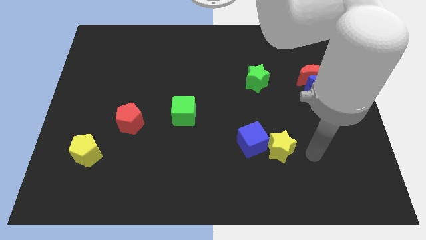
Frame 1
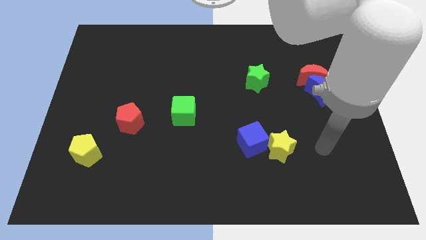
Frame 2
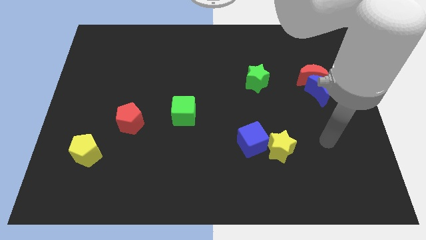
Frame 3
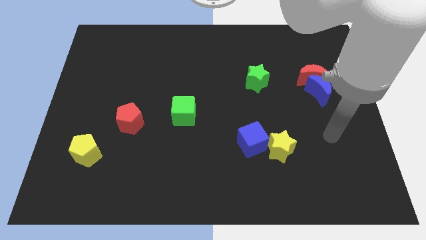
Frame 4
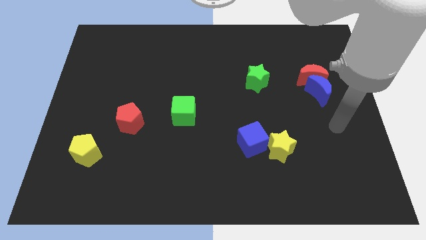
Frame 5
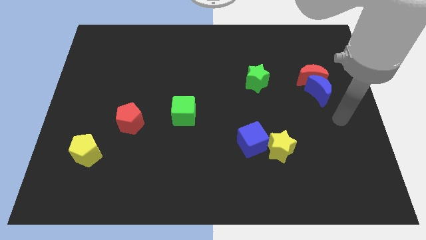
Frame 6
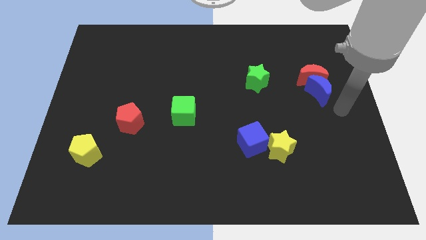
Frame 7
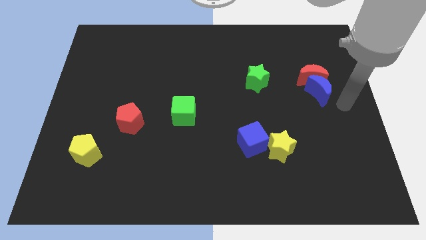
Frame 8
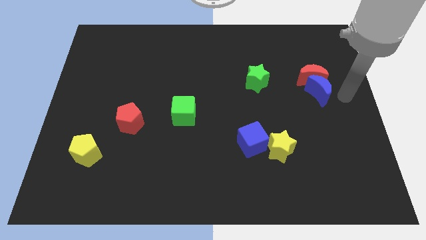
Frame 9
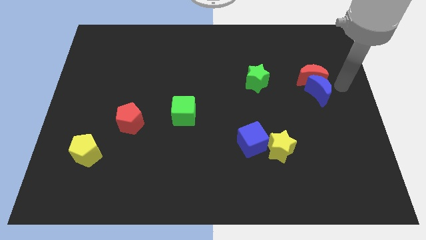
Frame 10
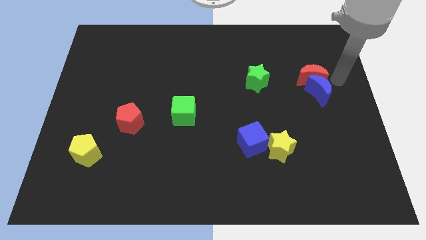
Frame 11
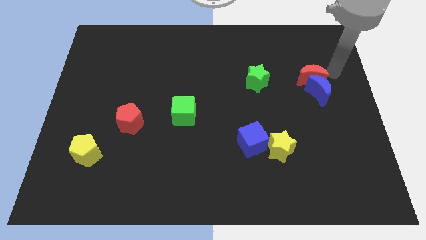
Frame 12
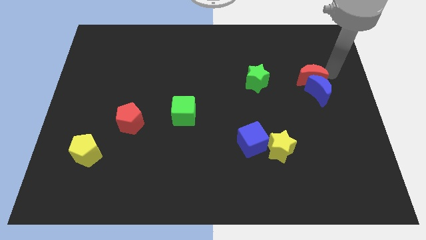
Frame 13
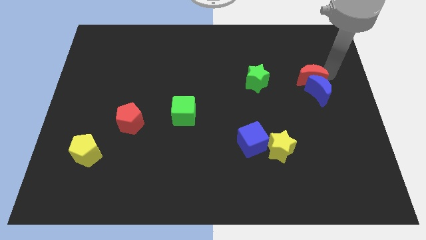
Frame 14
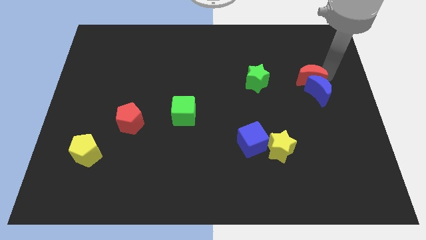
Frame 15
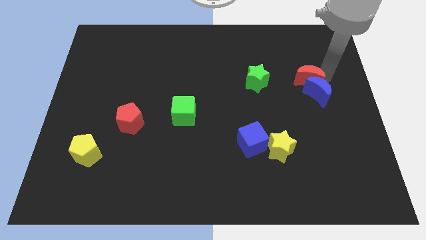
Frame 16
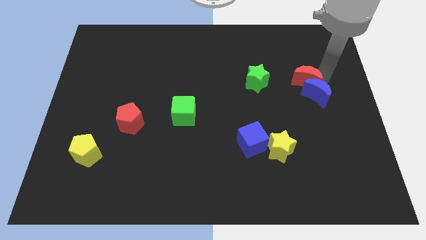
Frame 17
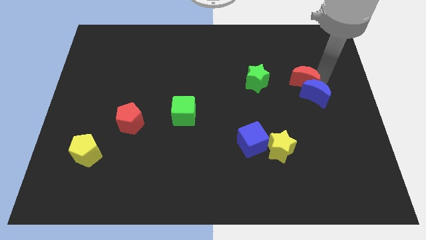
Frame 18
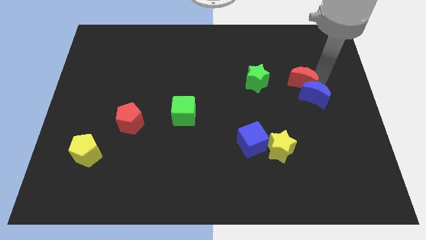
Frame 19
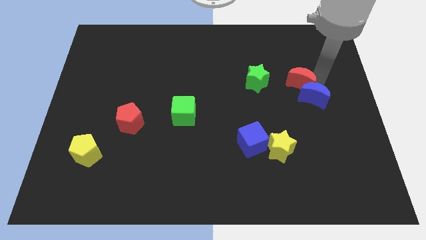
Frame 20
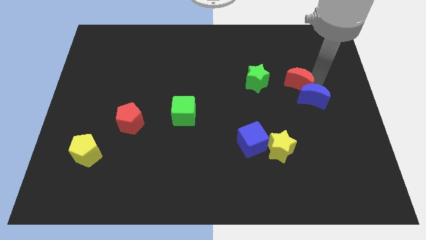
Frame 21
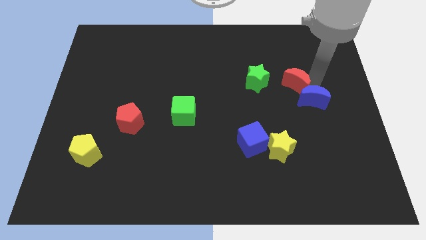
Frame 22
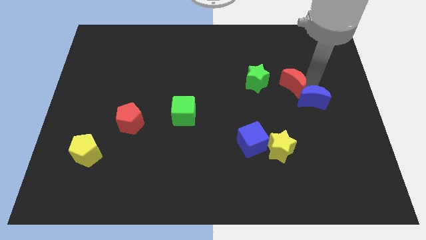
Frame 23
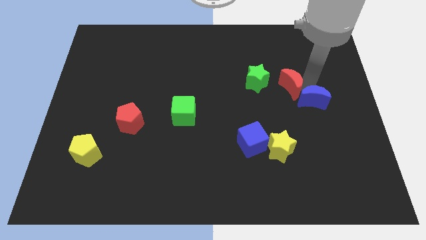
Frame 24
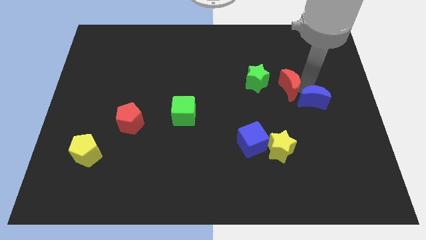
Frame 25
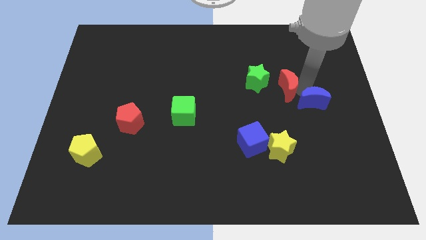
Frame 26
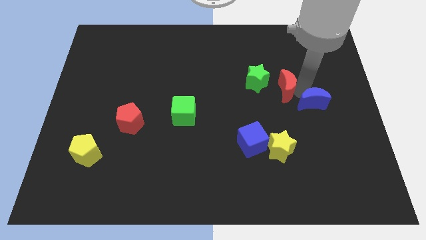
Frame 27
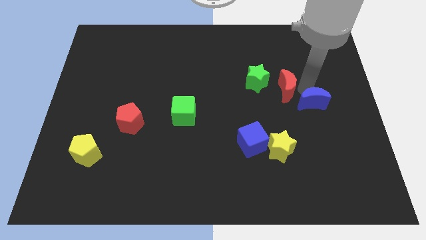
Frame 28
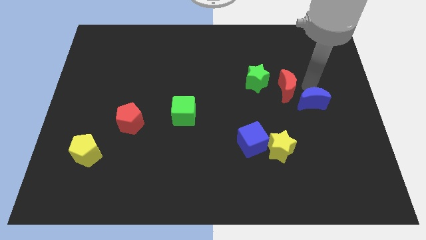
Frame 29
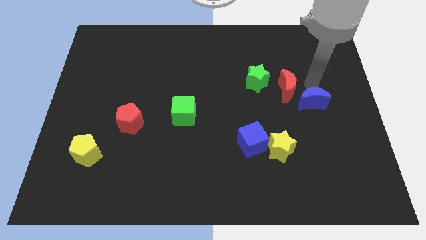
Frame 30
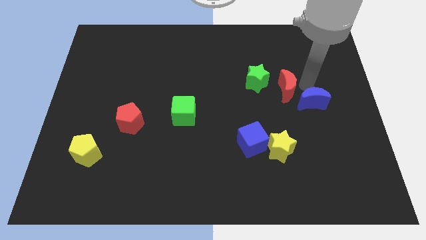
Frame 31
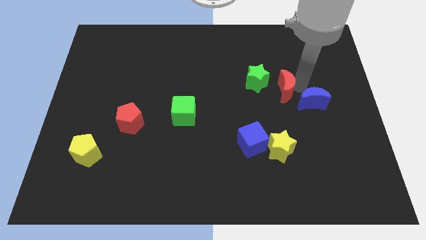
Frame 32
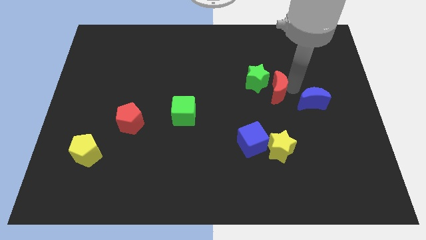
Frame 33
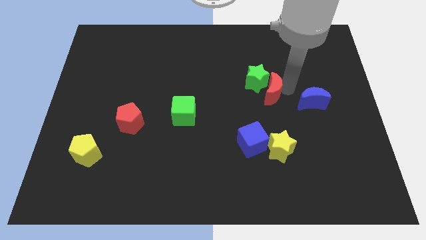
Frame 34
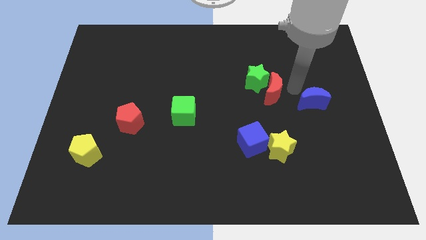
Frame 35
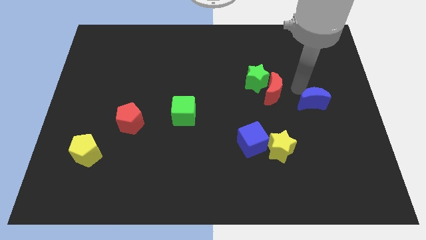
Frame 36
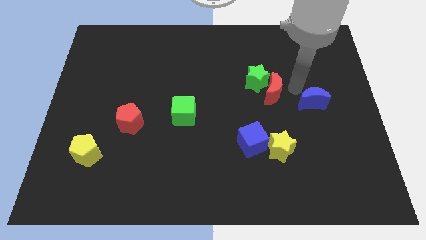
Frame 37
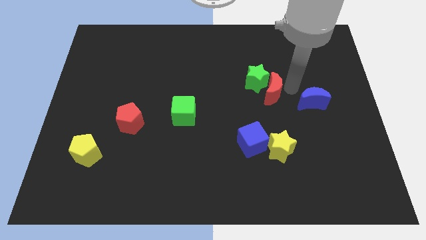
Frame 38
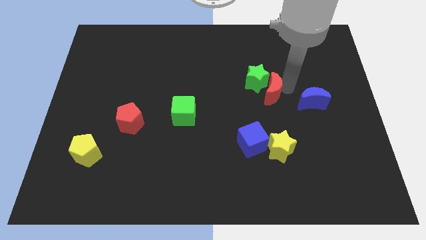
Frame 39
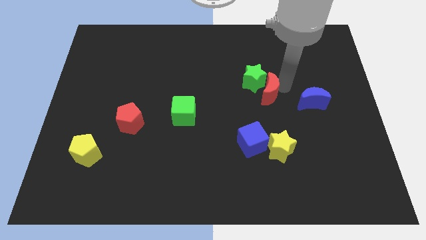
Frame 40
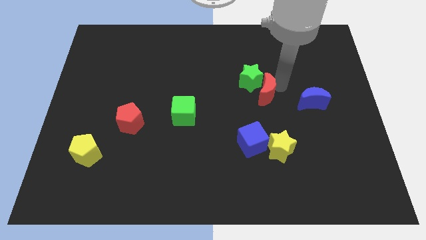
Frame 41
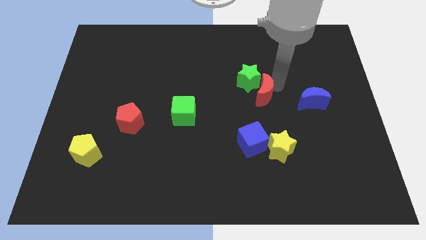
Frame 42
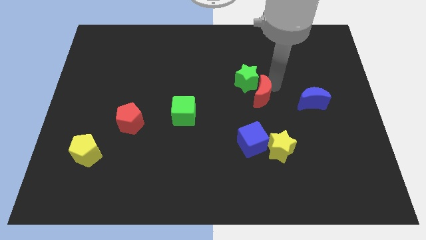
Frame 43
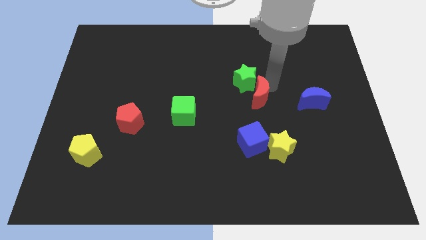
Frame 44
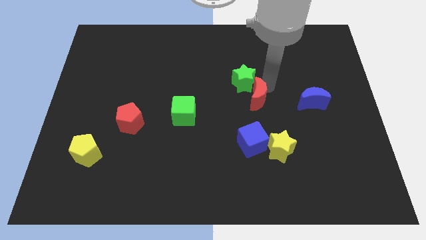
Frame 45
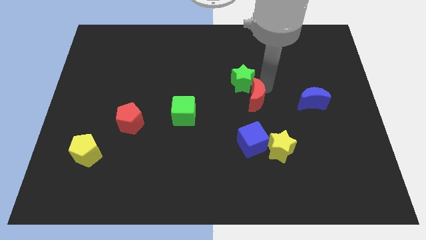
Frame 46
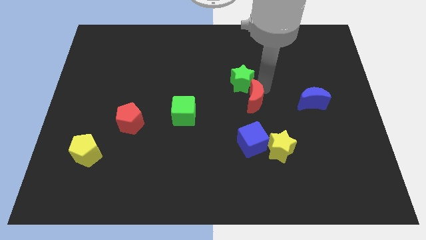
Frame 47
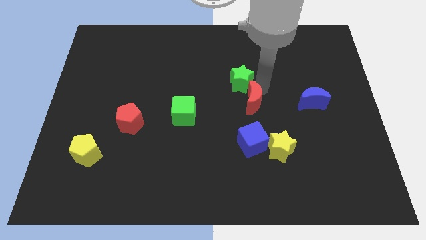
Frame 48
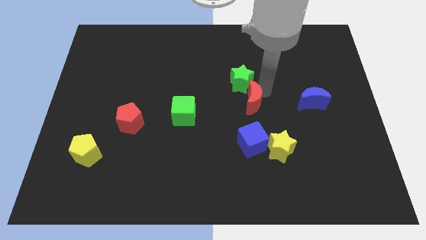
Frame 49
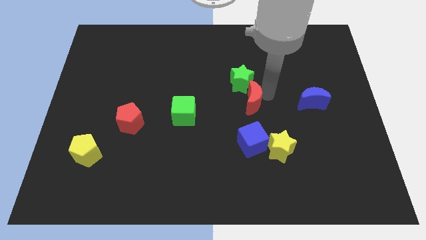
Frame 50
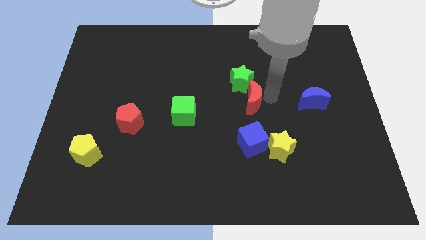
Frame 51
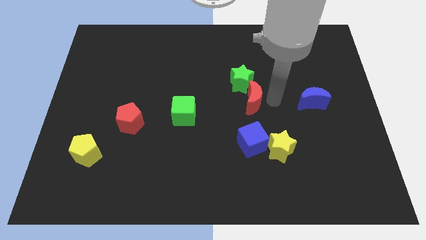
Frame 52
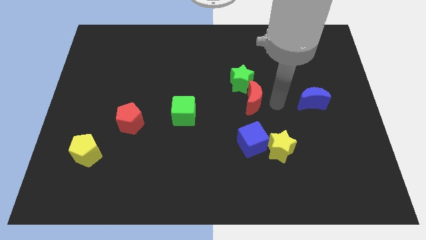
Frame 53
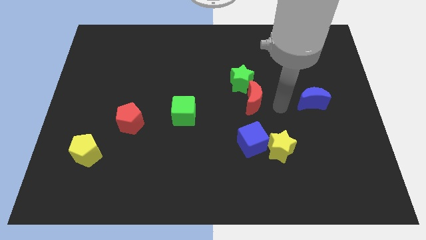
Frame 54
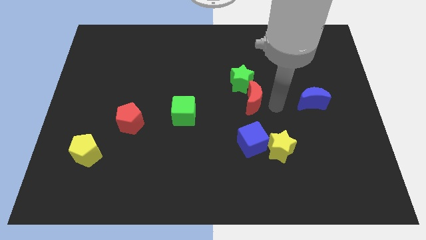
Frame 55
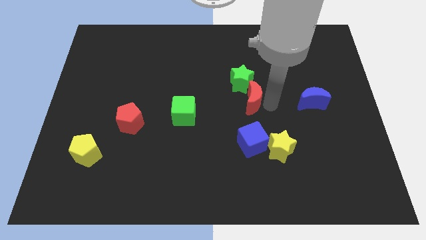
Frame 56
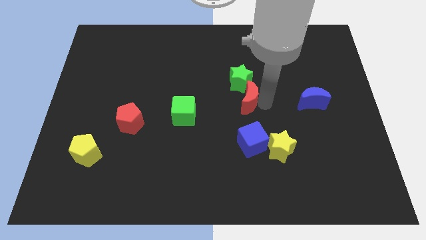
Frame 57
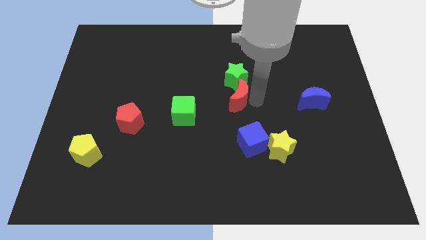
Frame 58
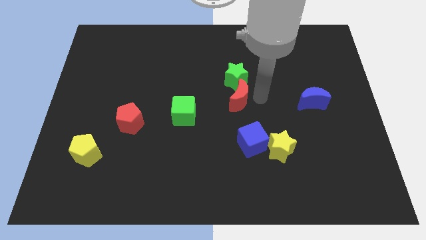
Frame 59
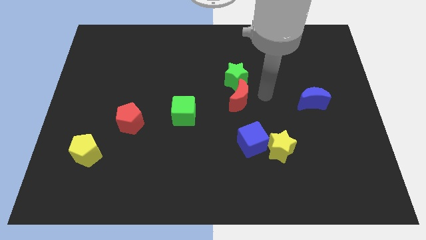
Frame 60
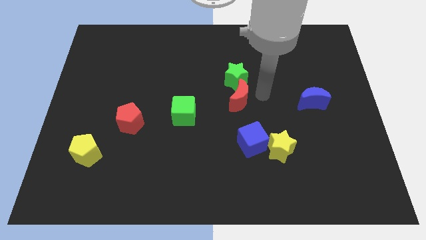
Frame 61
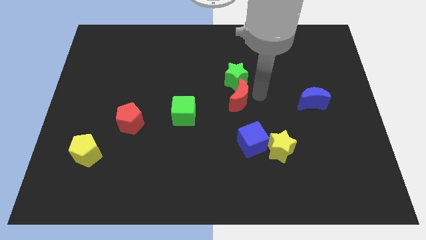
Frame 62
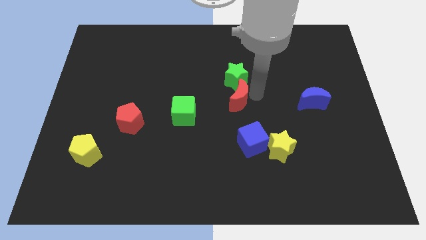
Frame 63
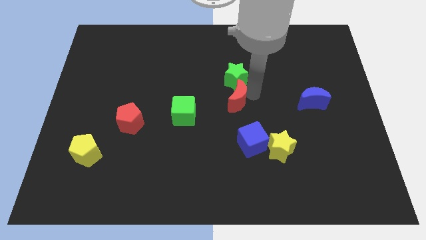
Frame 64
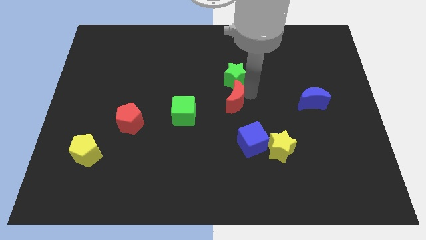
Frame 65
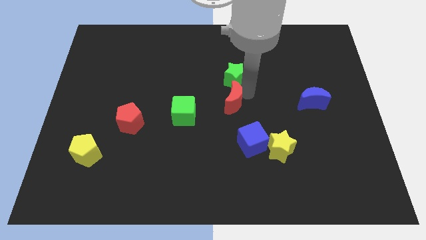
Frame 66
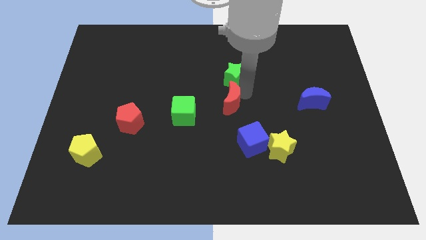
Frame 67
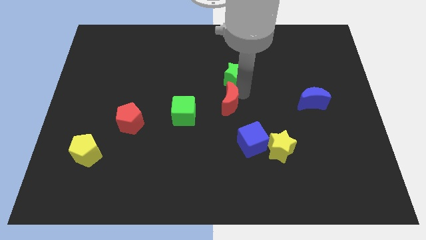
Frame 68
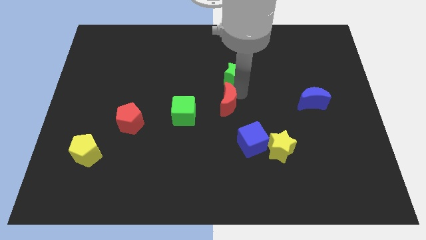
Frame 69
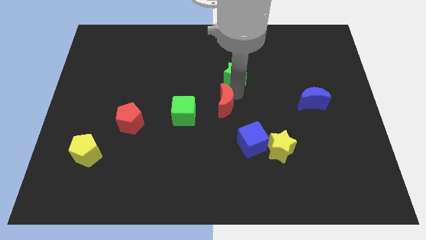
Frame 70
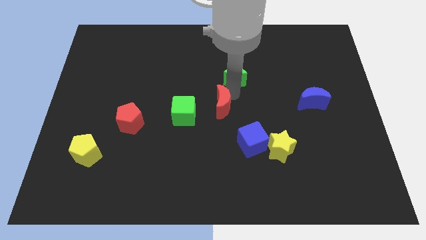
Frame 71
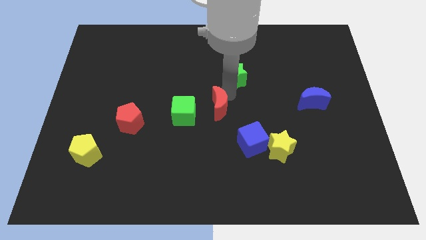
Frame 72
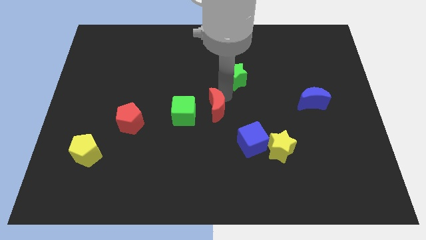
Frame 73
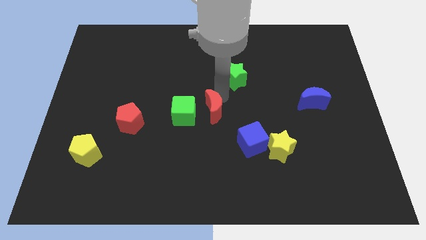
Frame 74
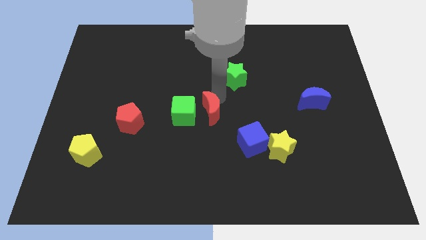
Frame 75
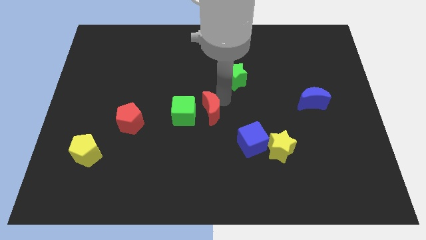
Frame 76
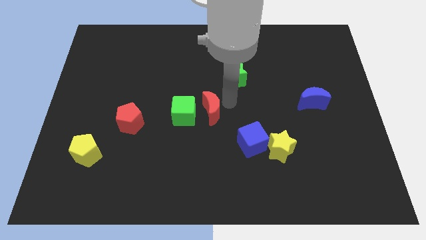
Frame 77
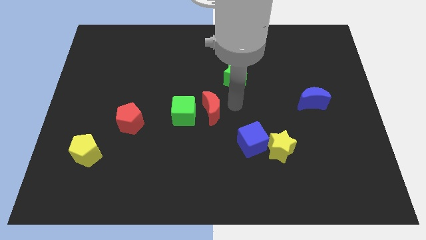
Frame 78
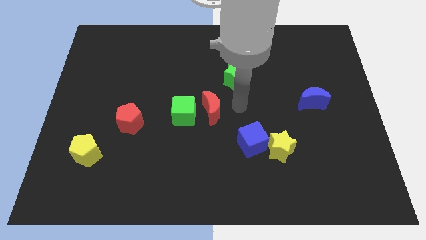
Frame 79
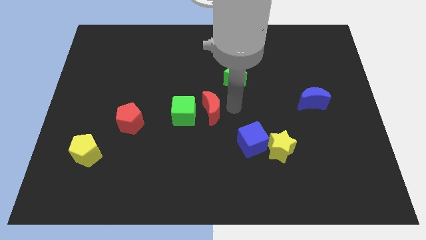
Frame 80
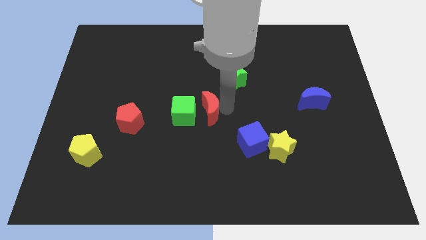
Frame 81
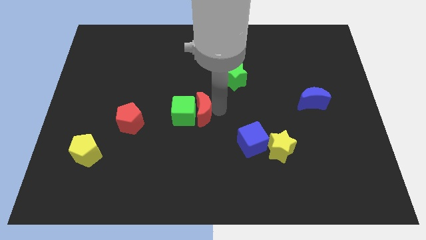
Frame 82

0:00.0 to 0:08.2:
slide the red moon to the green cube
